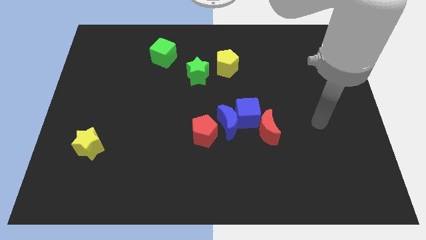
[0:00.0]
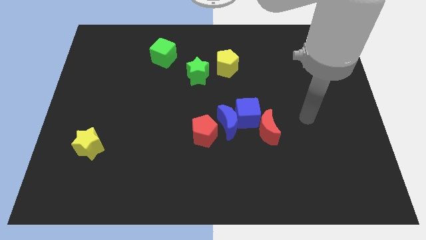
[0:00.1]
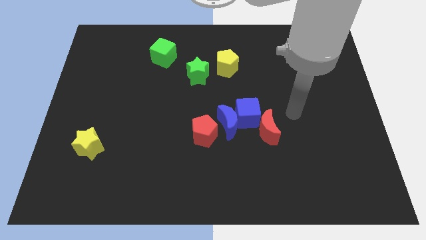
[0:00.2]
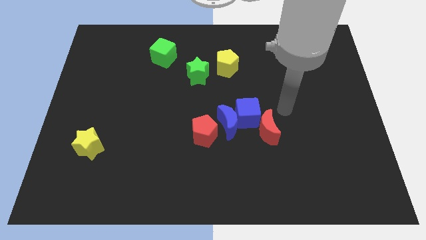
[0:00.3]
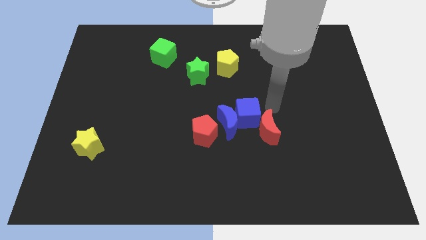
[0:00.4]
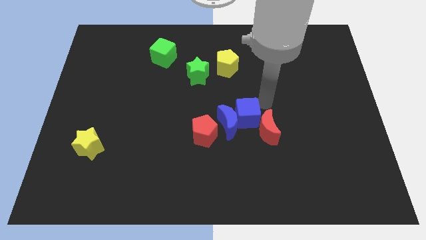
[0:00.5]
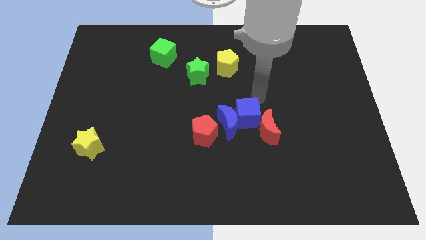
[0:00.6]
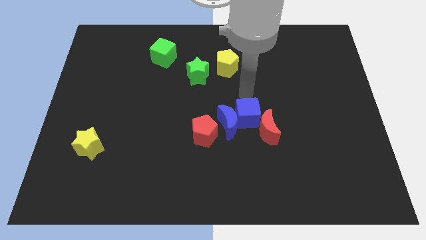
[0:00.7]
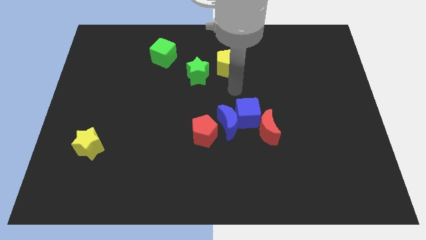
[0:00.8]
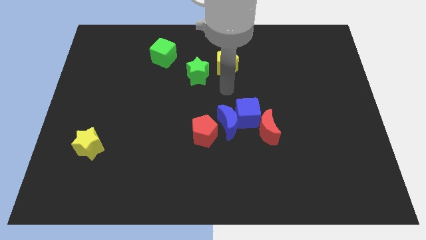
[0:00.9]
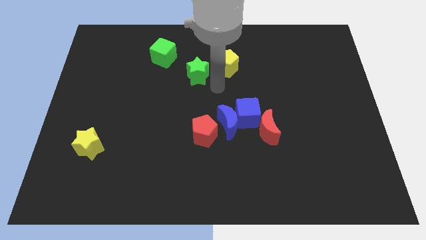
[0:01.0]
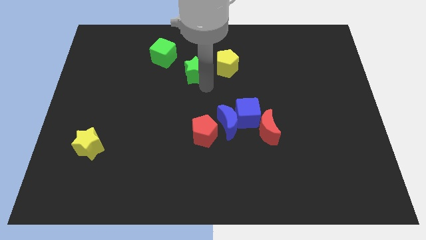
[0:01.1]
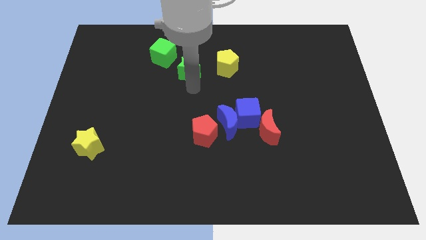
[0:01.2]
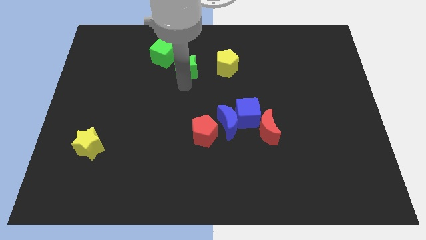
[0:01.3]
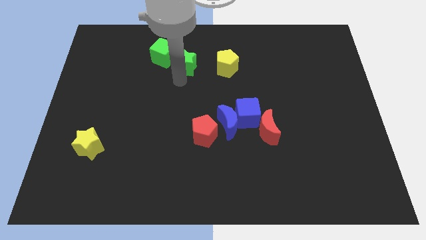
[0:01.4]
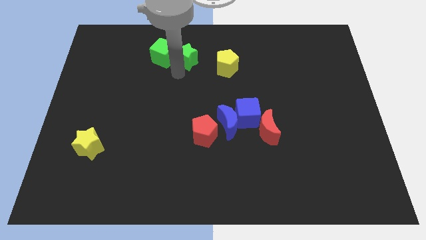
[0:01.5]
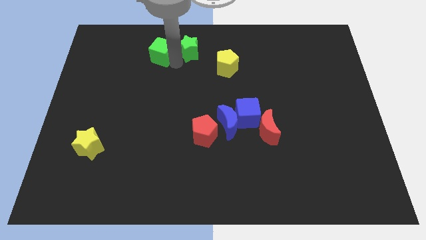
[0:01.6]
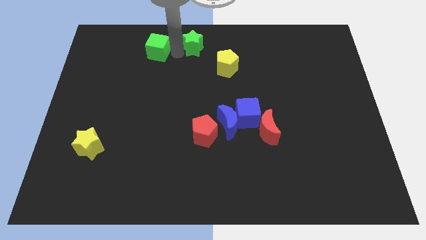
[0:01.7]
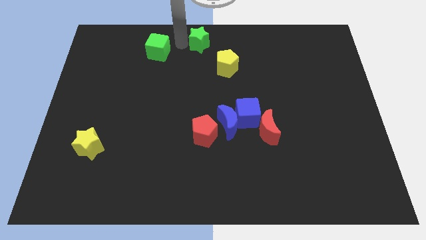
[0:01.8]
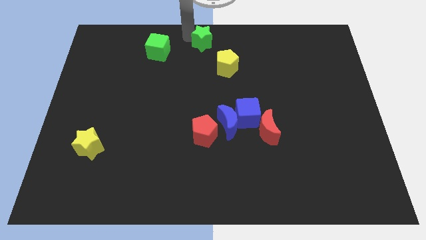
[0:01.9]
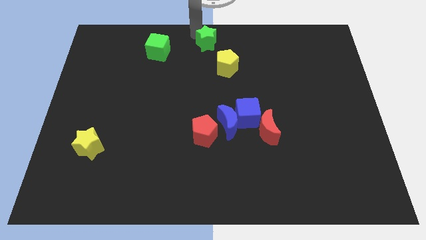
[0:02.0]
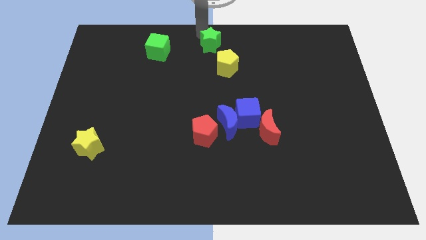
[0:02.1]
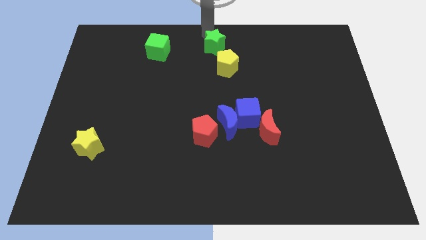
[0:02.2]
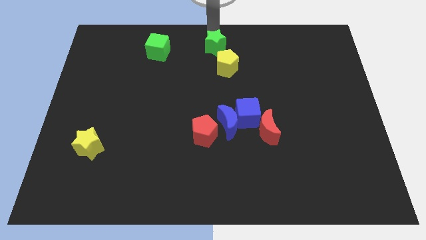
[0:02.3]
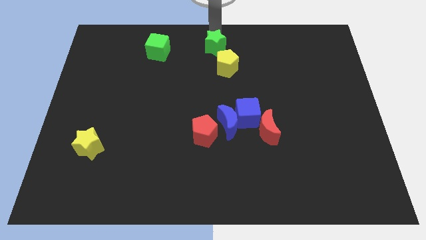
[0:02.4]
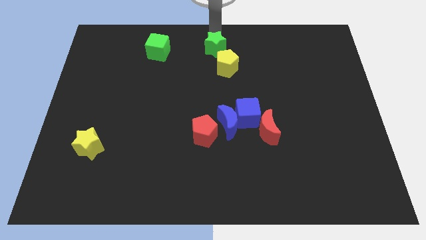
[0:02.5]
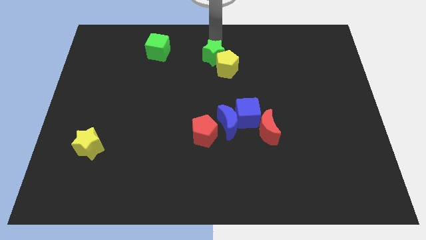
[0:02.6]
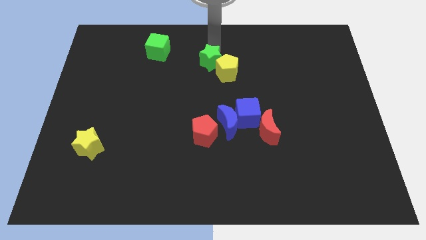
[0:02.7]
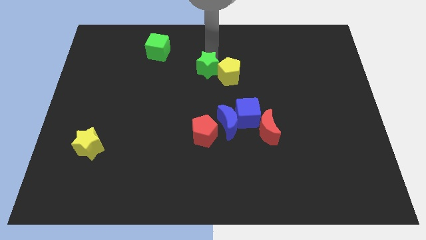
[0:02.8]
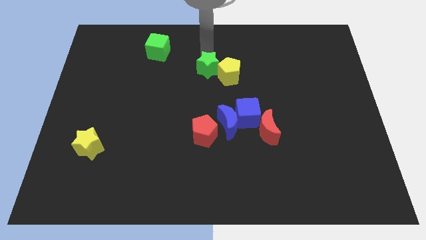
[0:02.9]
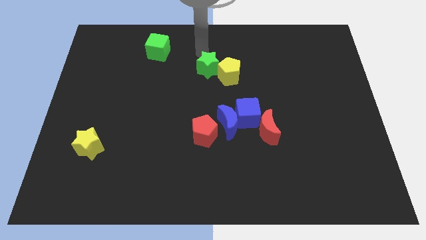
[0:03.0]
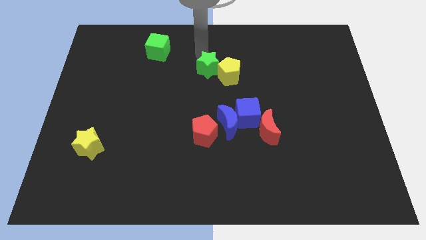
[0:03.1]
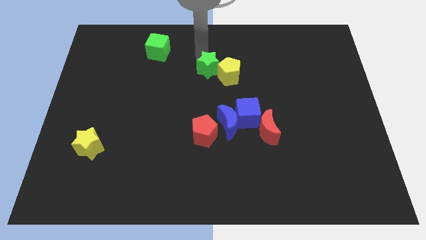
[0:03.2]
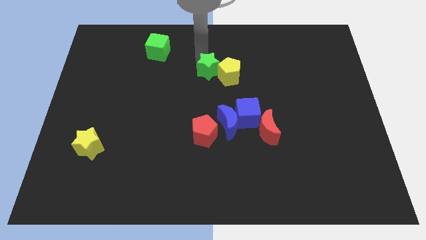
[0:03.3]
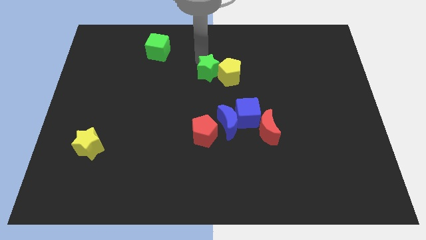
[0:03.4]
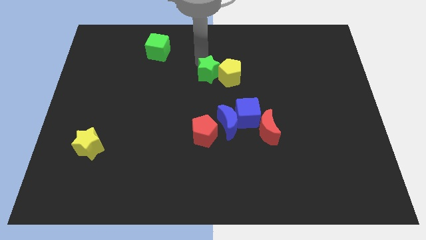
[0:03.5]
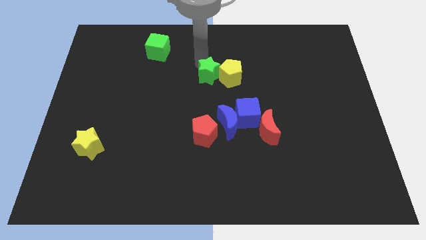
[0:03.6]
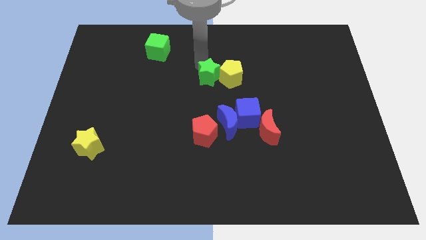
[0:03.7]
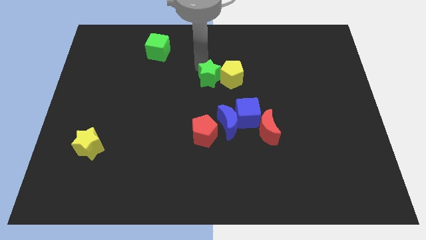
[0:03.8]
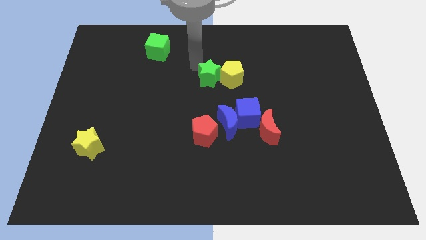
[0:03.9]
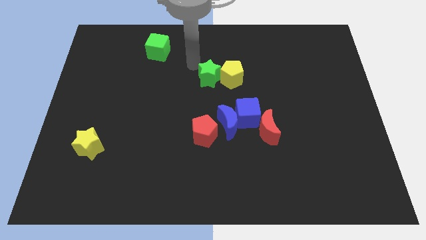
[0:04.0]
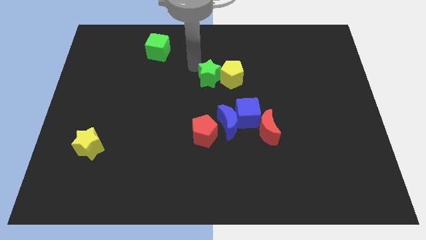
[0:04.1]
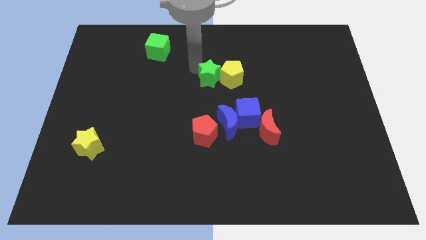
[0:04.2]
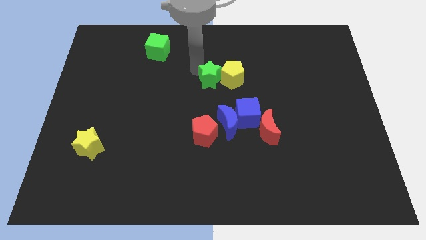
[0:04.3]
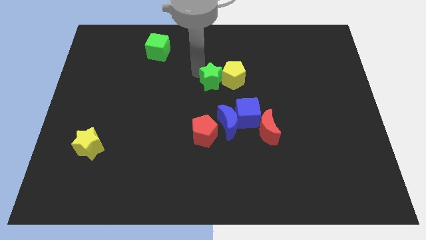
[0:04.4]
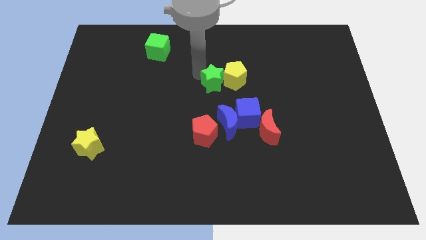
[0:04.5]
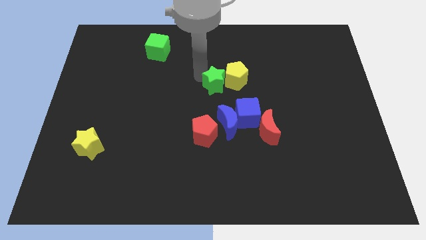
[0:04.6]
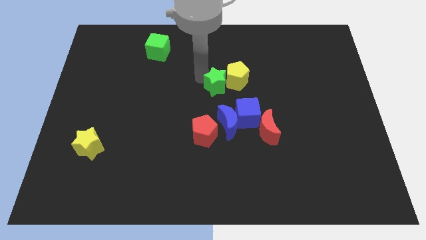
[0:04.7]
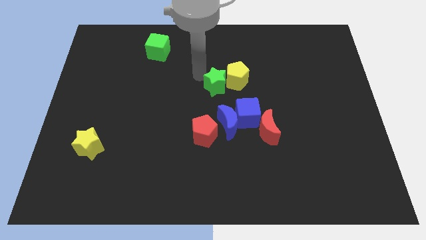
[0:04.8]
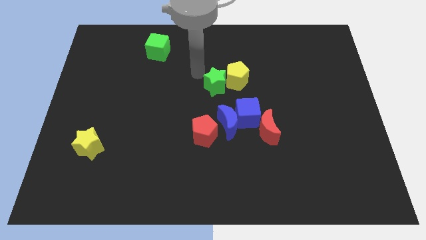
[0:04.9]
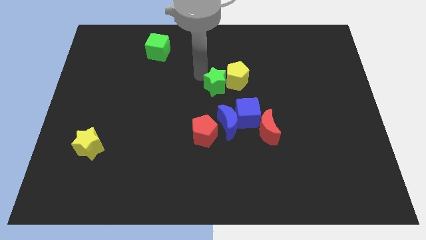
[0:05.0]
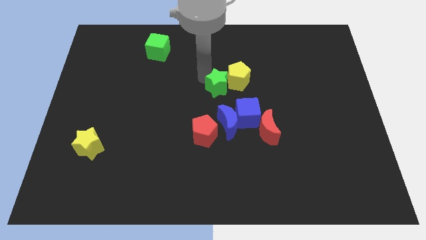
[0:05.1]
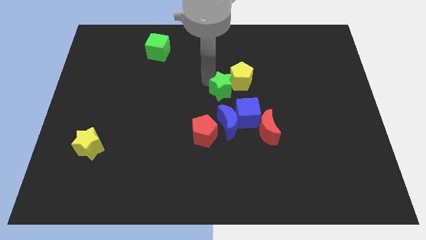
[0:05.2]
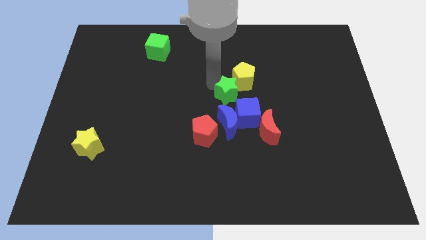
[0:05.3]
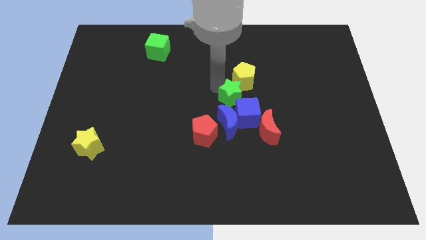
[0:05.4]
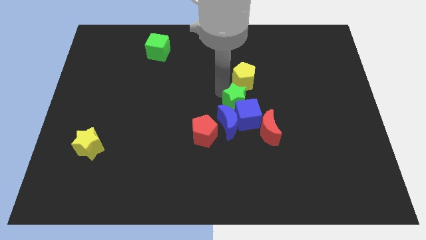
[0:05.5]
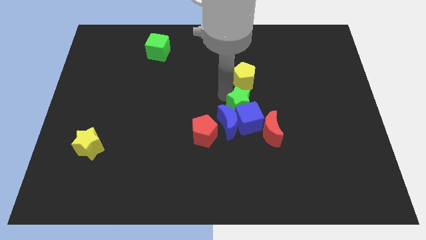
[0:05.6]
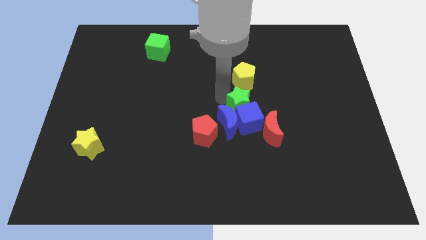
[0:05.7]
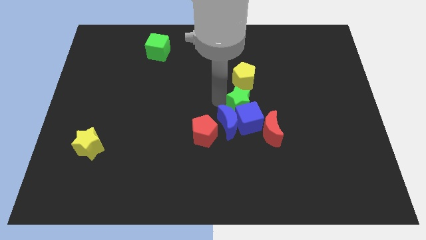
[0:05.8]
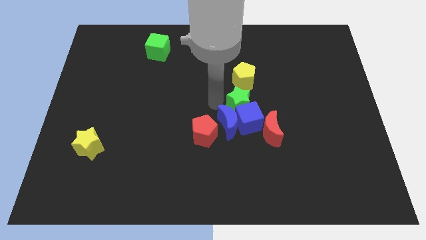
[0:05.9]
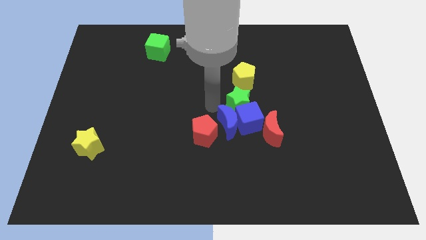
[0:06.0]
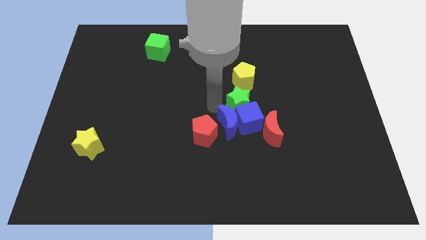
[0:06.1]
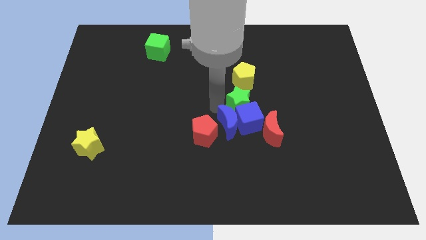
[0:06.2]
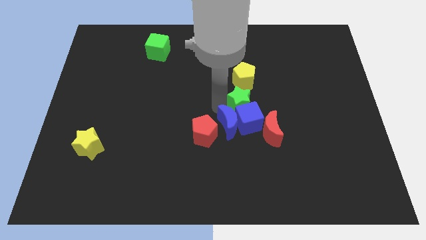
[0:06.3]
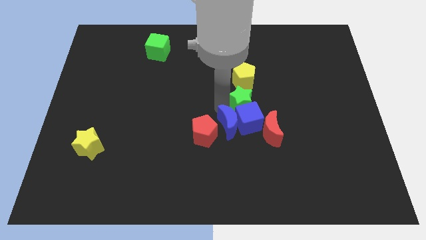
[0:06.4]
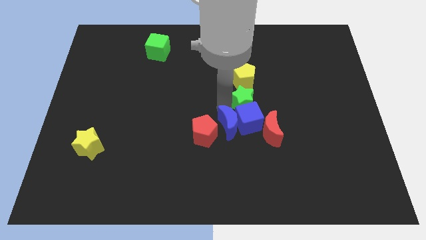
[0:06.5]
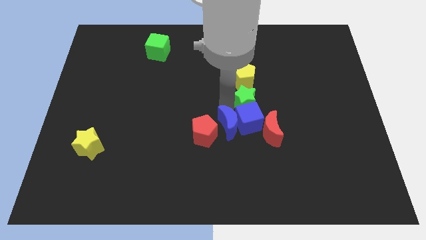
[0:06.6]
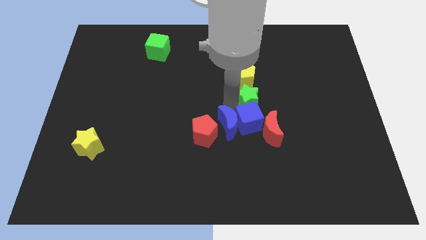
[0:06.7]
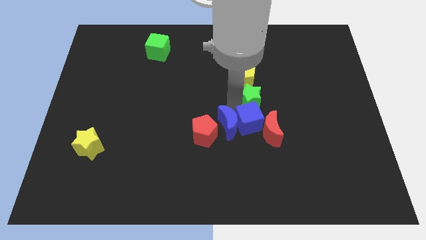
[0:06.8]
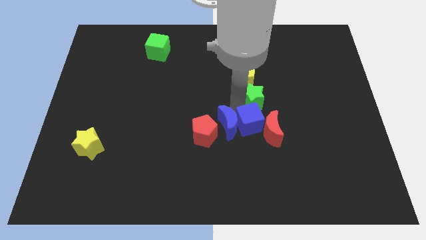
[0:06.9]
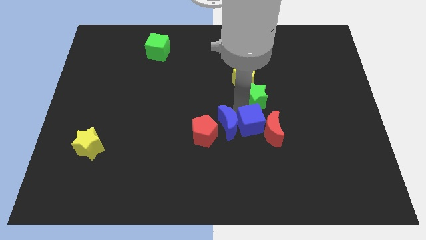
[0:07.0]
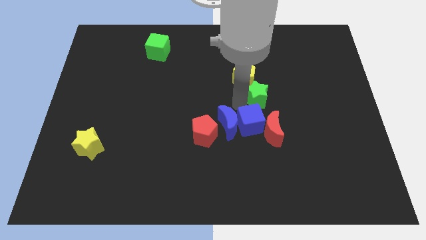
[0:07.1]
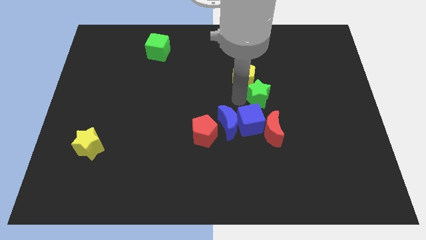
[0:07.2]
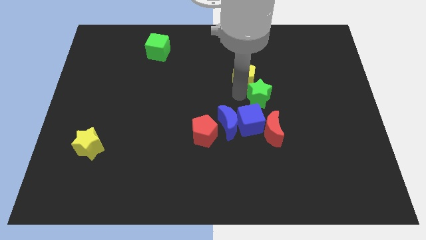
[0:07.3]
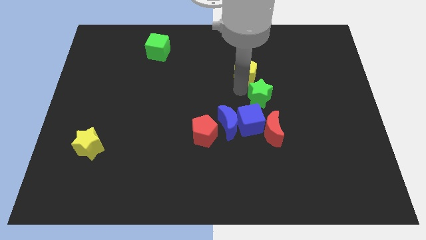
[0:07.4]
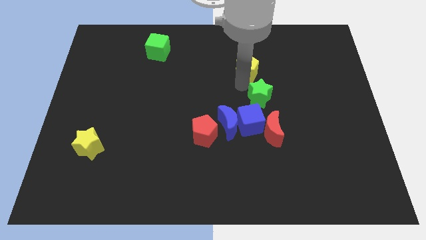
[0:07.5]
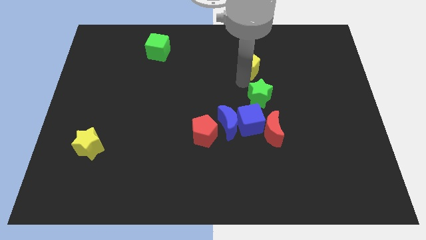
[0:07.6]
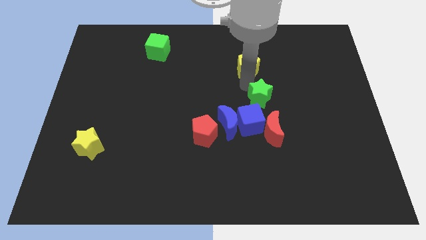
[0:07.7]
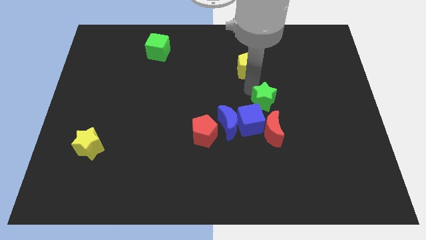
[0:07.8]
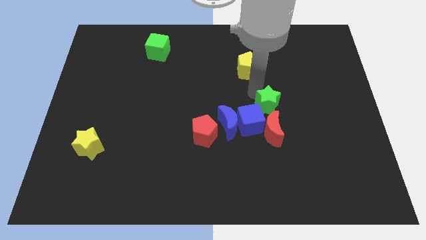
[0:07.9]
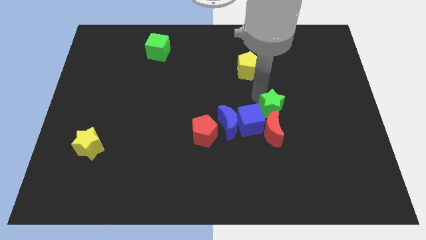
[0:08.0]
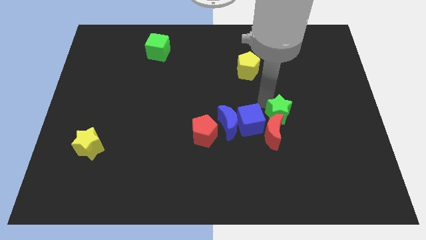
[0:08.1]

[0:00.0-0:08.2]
push the green star downwards and then right
